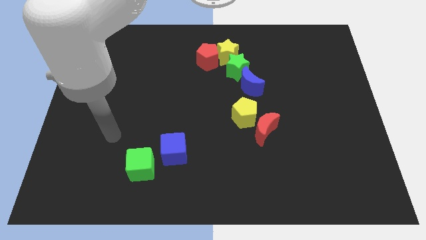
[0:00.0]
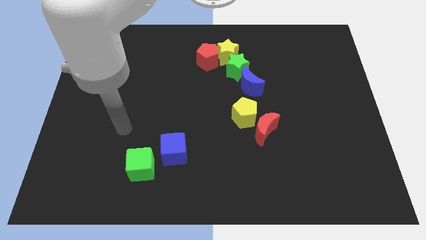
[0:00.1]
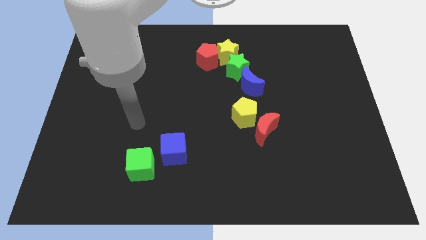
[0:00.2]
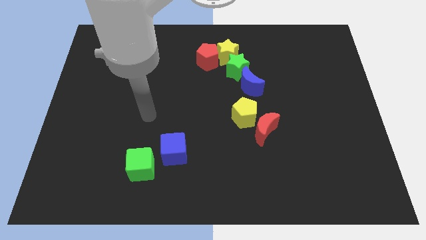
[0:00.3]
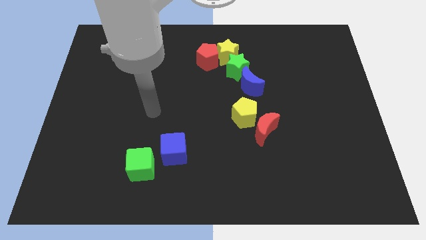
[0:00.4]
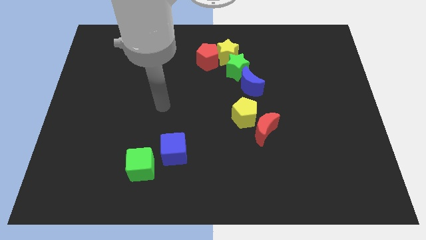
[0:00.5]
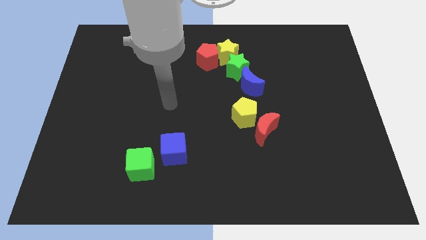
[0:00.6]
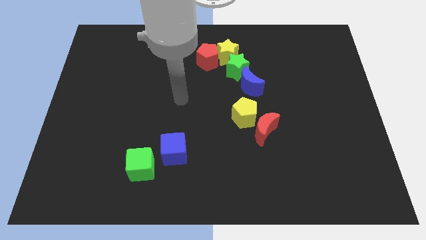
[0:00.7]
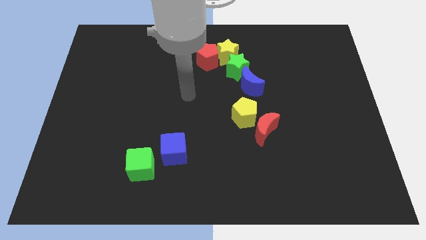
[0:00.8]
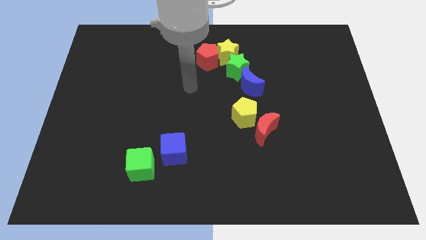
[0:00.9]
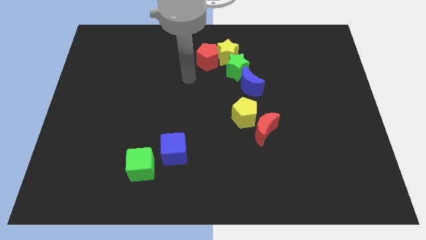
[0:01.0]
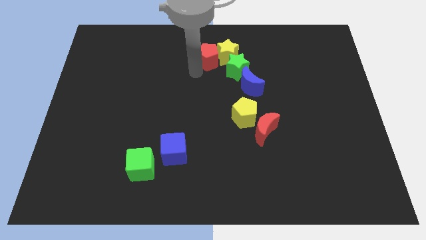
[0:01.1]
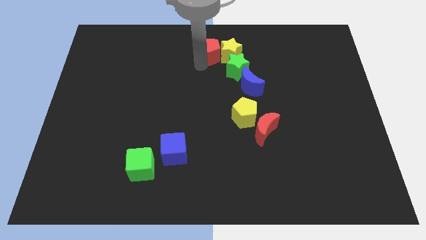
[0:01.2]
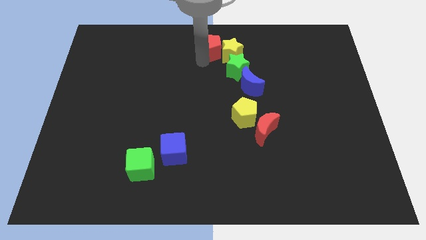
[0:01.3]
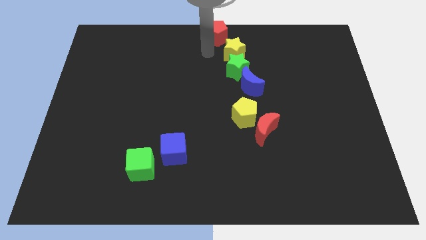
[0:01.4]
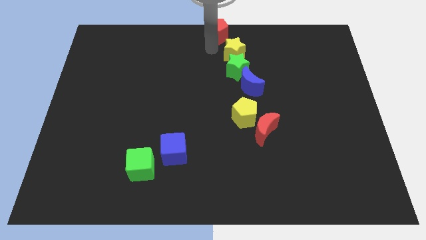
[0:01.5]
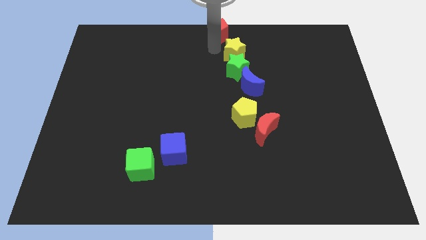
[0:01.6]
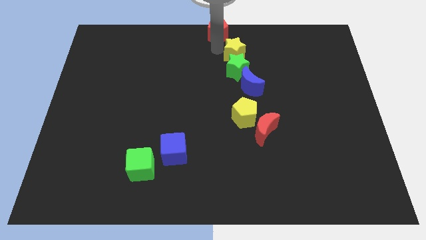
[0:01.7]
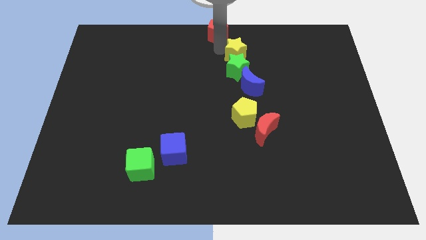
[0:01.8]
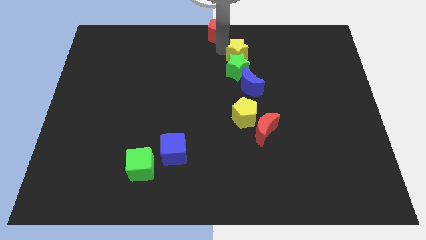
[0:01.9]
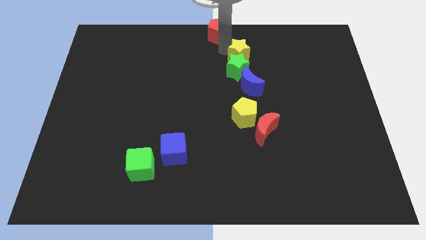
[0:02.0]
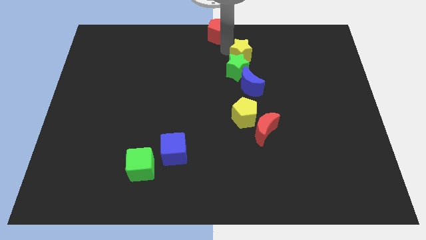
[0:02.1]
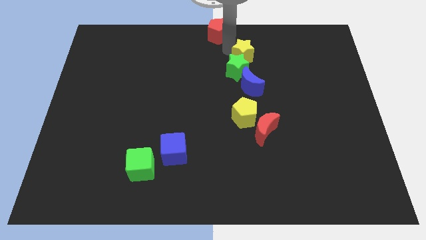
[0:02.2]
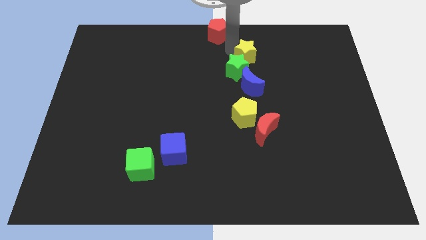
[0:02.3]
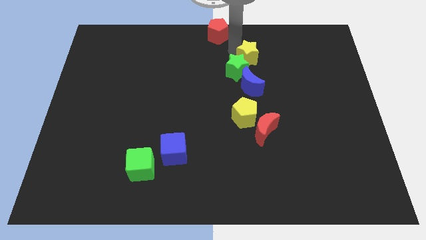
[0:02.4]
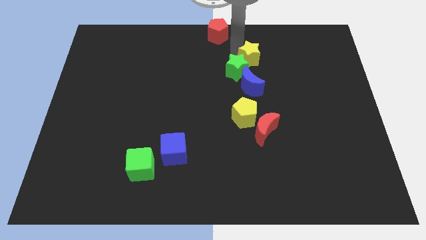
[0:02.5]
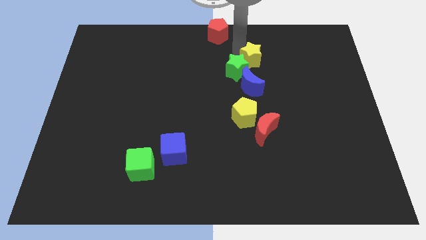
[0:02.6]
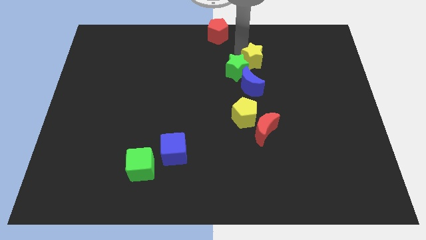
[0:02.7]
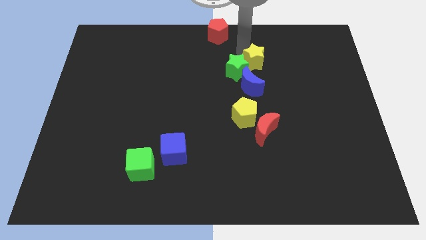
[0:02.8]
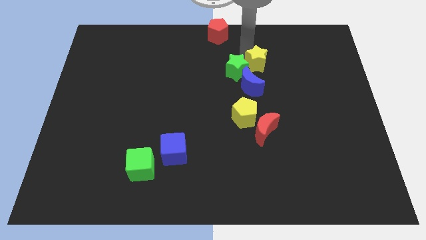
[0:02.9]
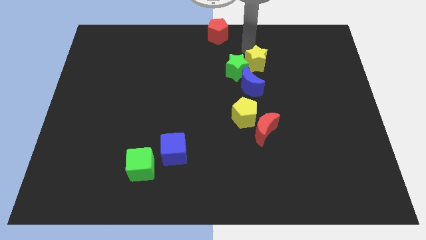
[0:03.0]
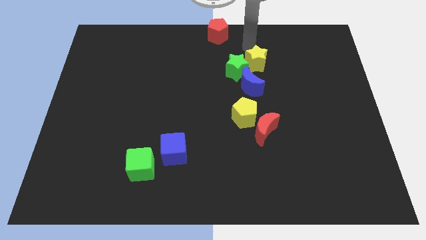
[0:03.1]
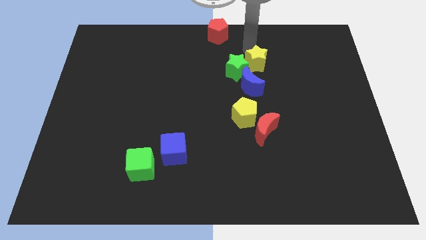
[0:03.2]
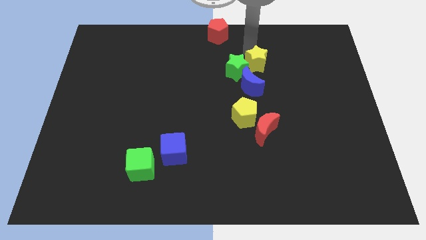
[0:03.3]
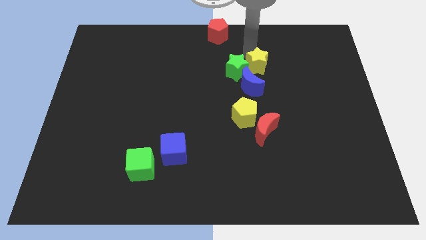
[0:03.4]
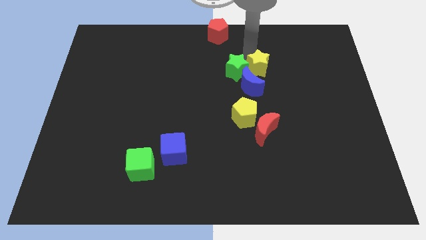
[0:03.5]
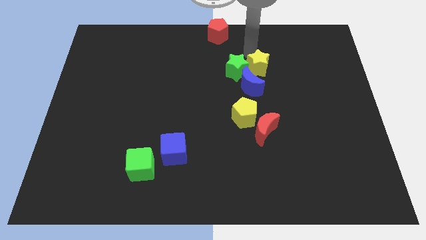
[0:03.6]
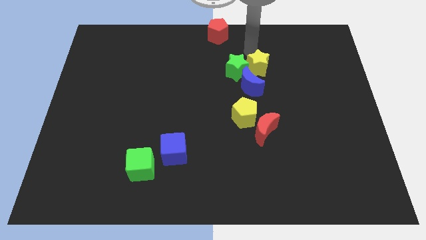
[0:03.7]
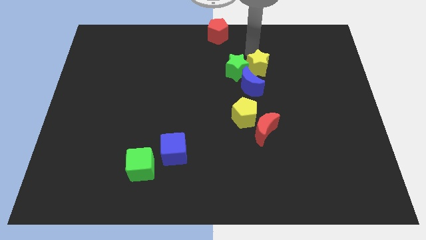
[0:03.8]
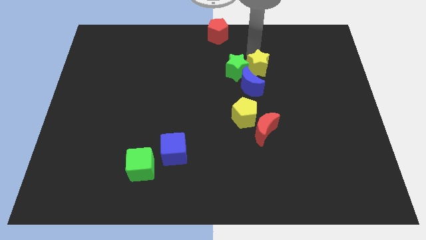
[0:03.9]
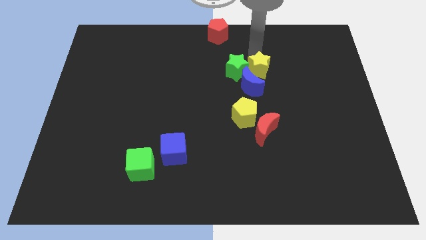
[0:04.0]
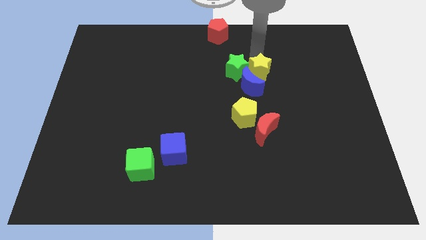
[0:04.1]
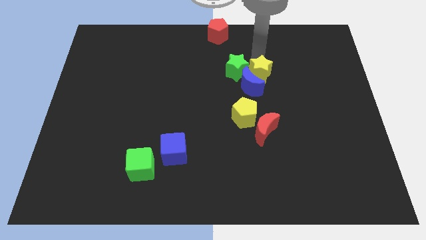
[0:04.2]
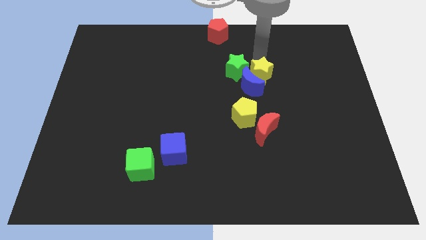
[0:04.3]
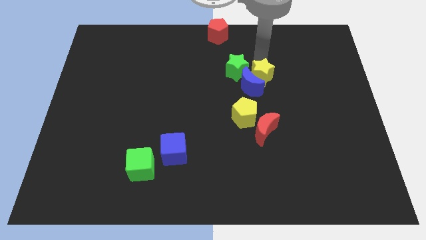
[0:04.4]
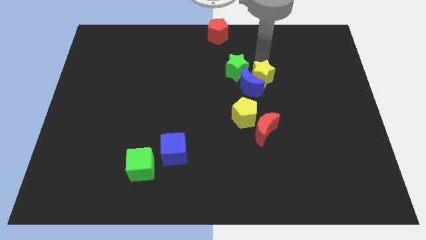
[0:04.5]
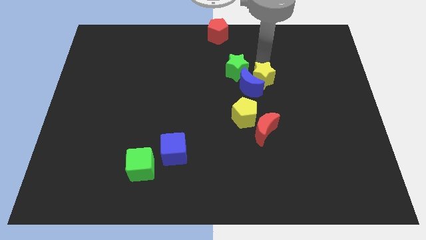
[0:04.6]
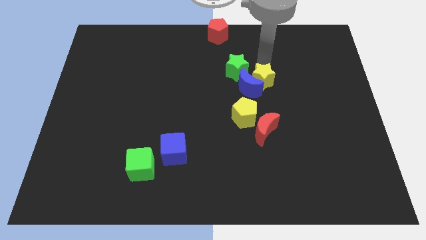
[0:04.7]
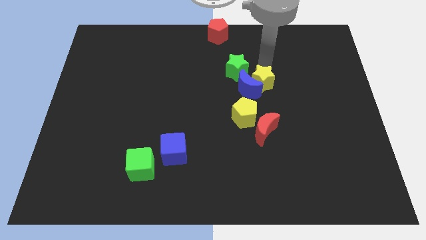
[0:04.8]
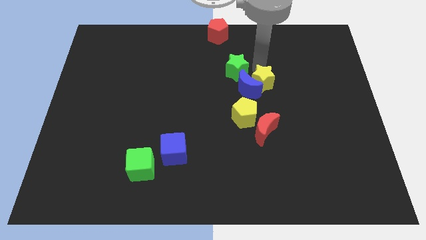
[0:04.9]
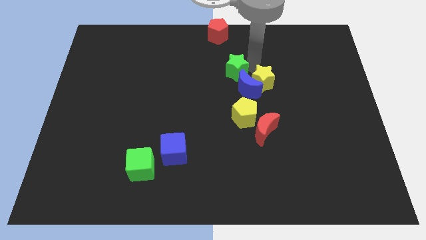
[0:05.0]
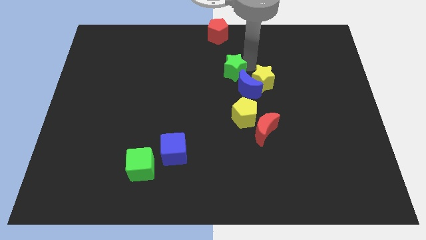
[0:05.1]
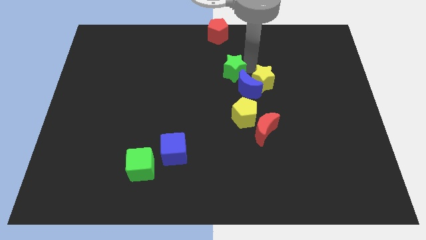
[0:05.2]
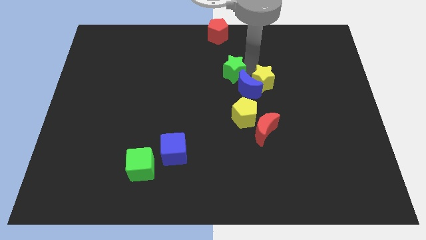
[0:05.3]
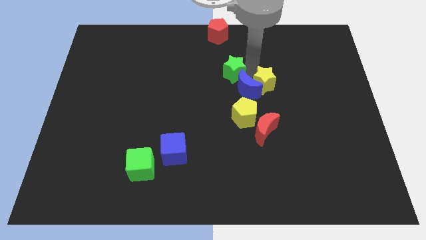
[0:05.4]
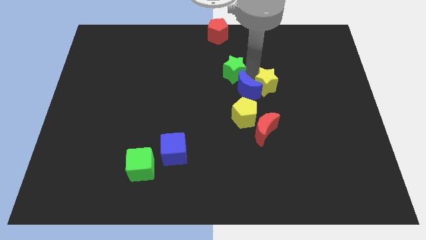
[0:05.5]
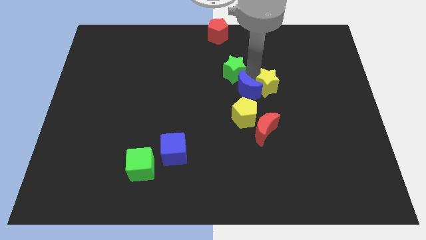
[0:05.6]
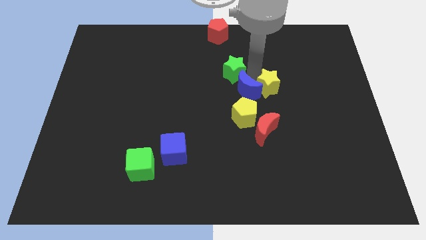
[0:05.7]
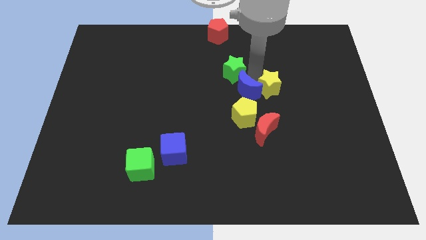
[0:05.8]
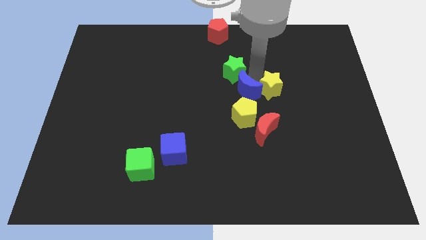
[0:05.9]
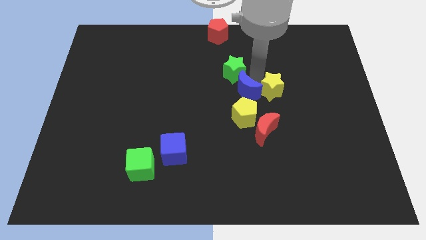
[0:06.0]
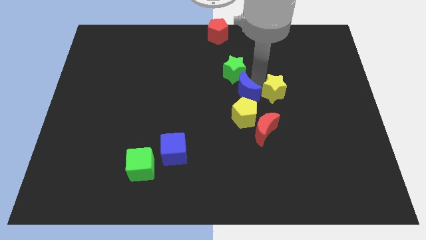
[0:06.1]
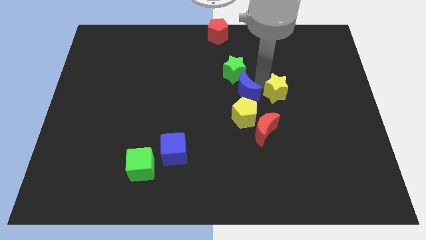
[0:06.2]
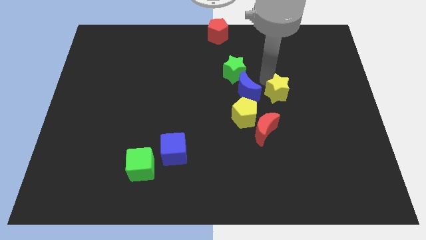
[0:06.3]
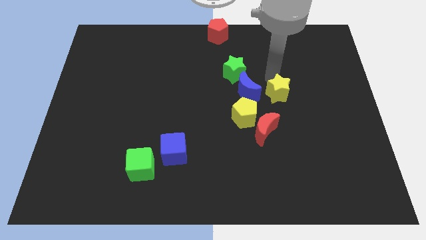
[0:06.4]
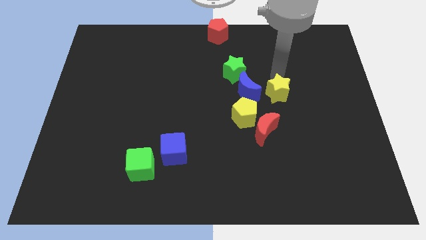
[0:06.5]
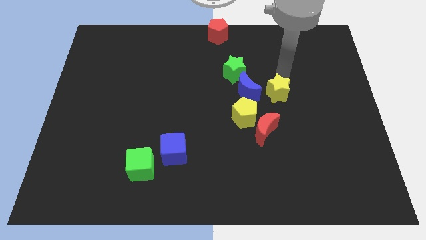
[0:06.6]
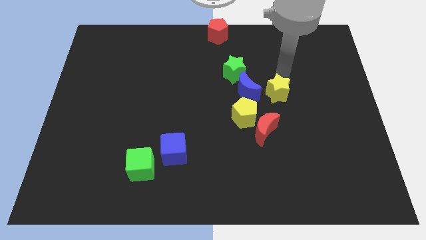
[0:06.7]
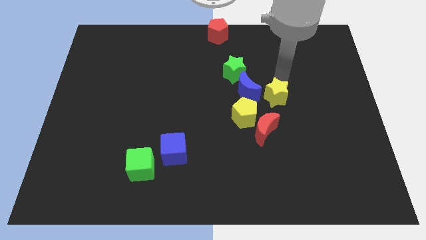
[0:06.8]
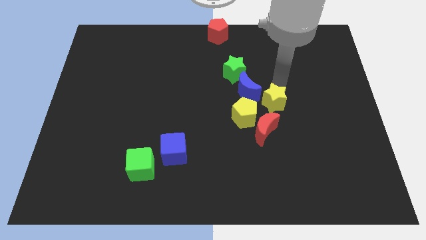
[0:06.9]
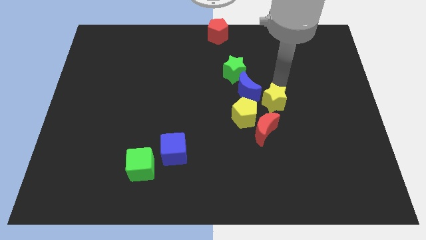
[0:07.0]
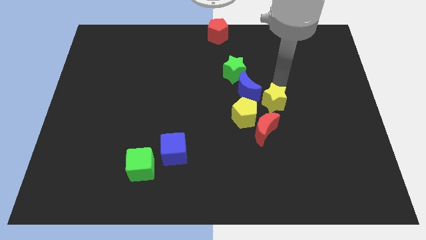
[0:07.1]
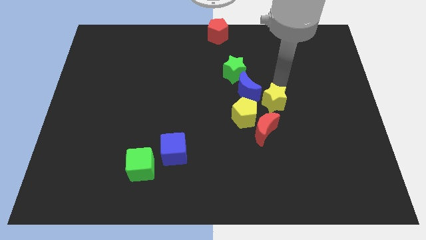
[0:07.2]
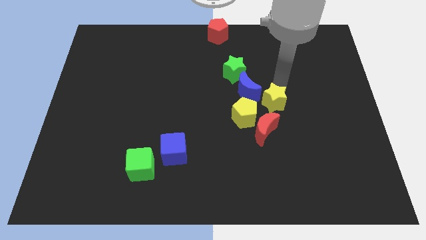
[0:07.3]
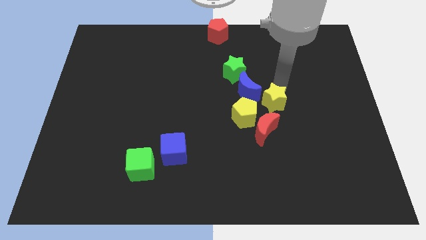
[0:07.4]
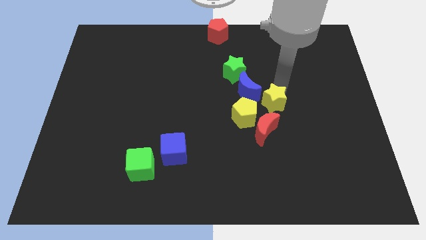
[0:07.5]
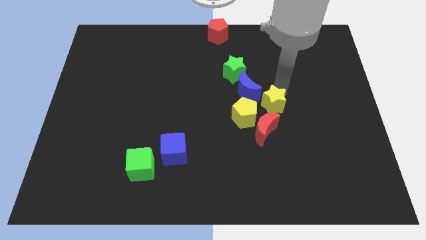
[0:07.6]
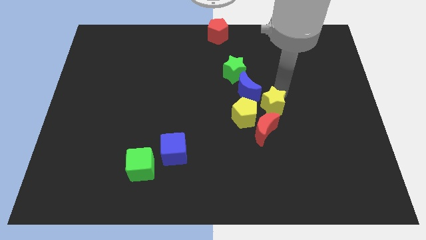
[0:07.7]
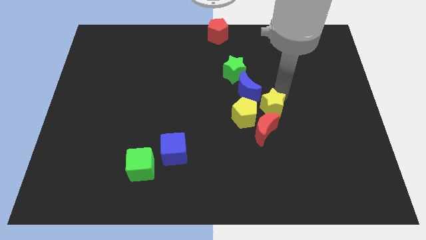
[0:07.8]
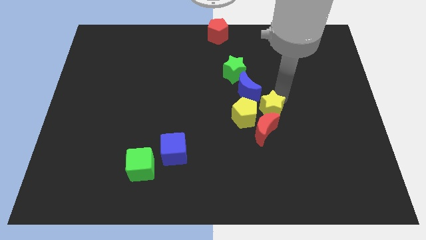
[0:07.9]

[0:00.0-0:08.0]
push the yellow star towards the red moon
